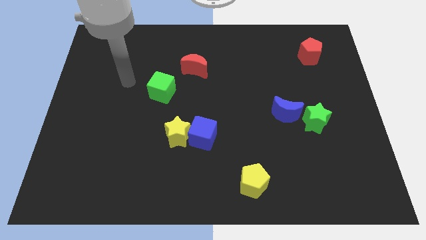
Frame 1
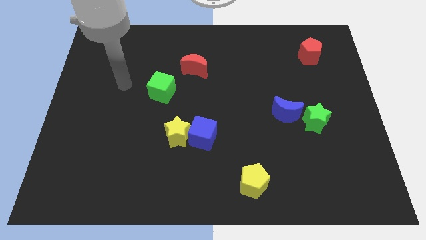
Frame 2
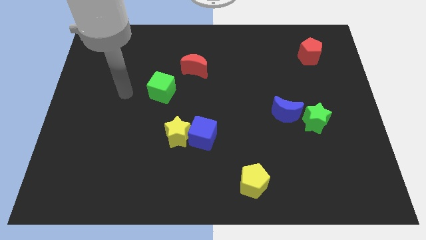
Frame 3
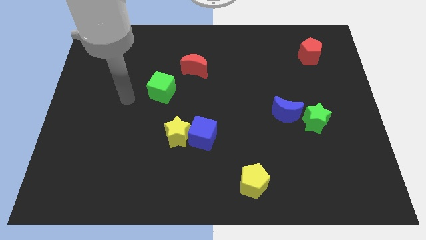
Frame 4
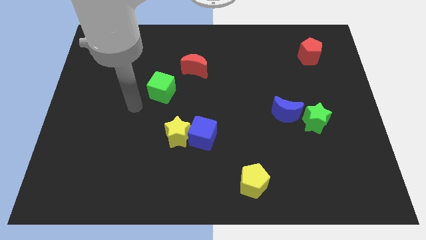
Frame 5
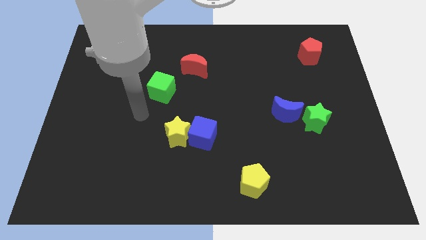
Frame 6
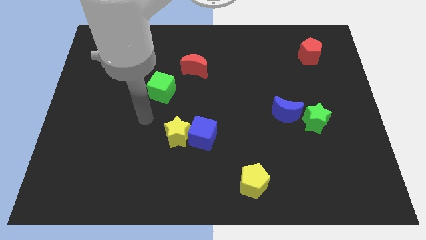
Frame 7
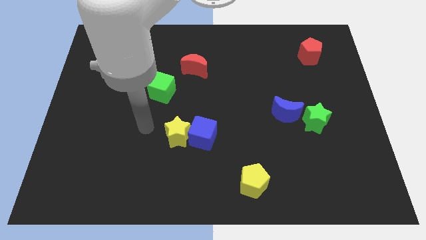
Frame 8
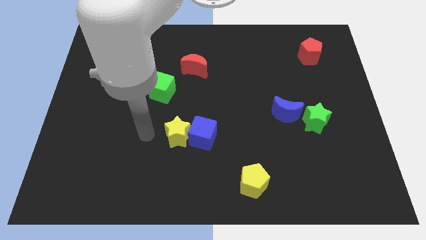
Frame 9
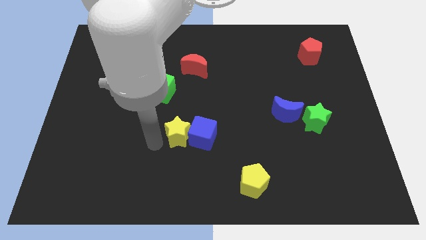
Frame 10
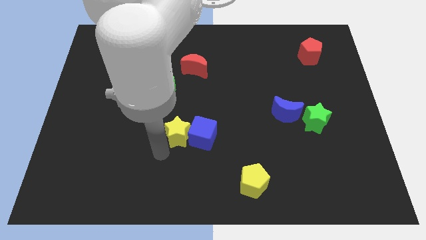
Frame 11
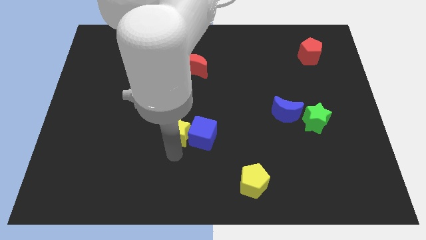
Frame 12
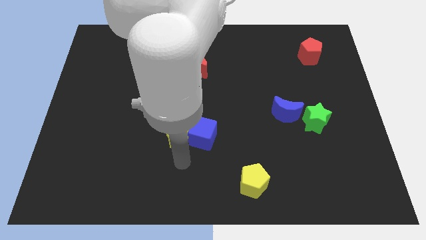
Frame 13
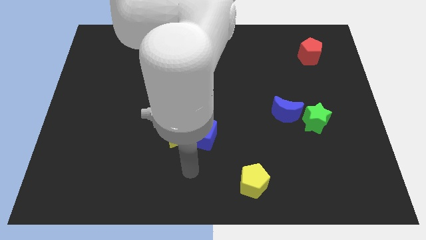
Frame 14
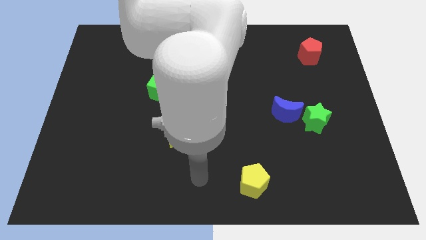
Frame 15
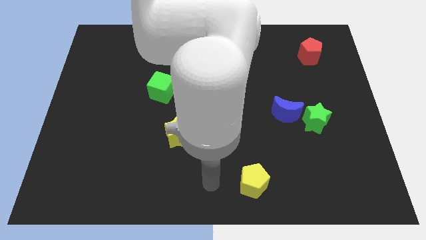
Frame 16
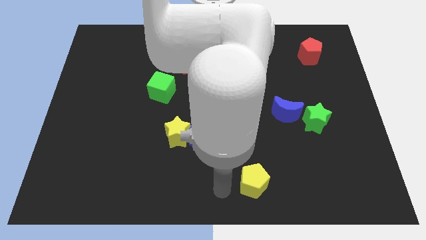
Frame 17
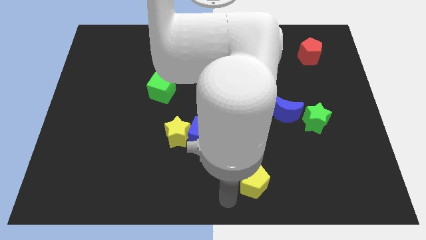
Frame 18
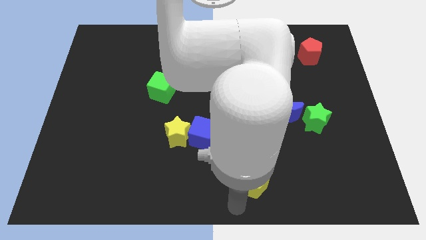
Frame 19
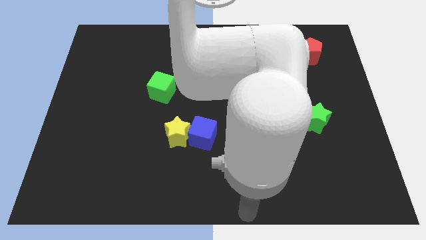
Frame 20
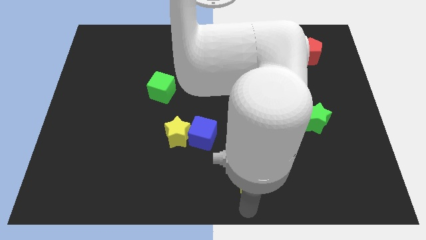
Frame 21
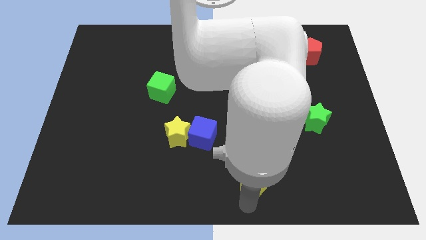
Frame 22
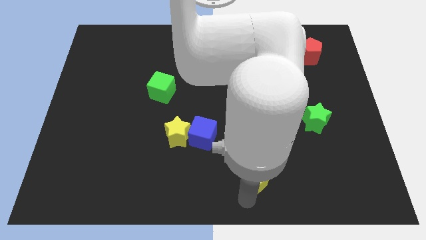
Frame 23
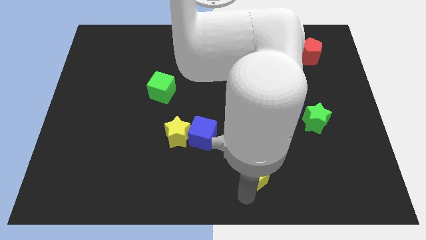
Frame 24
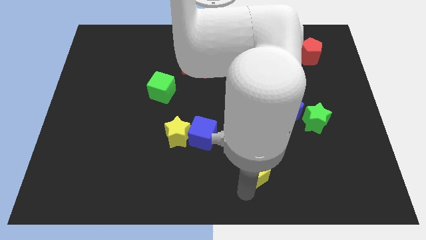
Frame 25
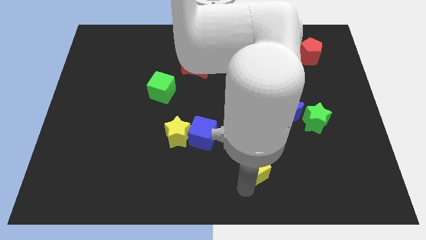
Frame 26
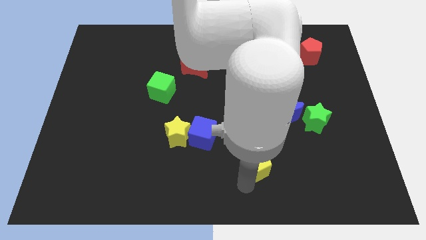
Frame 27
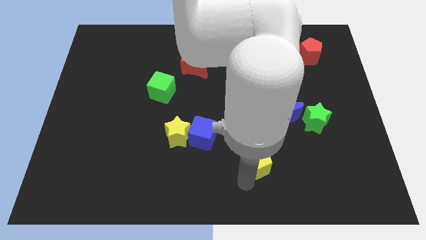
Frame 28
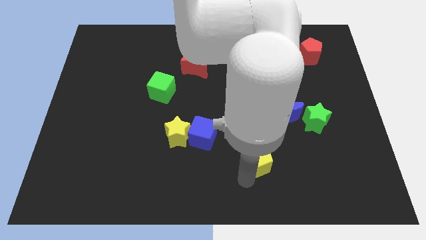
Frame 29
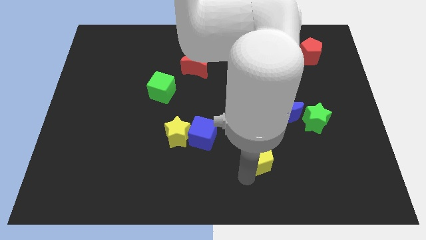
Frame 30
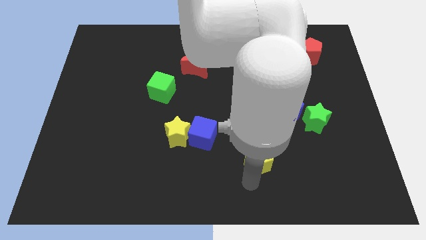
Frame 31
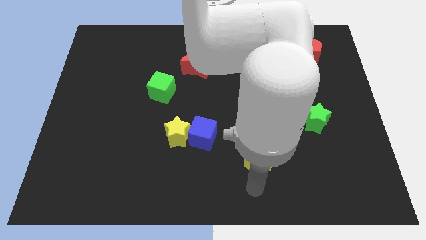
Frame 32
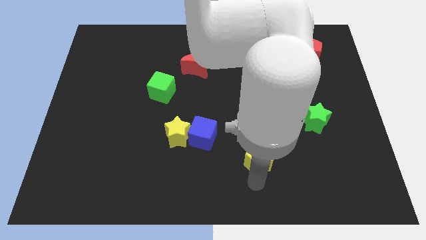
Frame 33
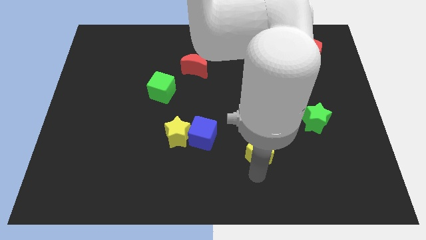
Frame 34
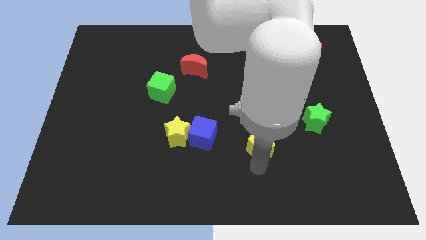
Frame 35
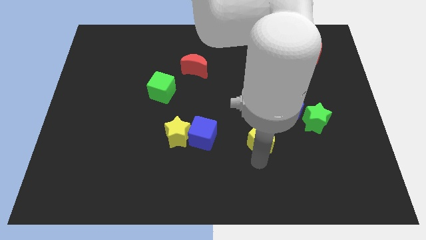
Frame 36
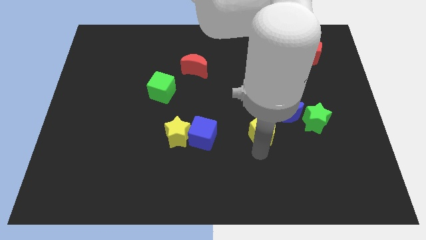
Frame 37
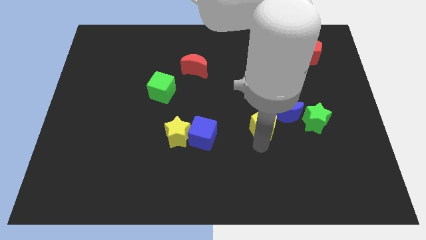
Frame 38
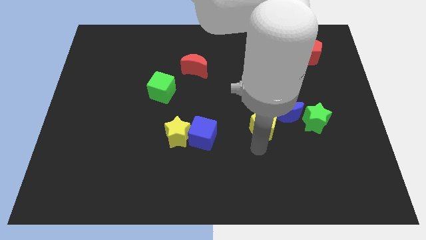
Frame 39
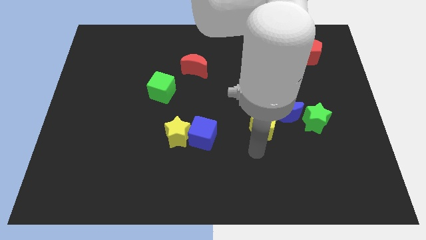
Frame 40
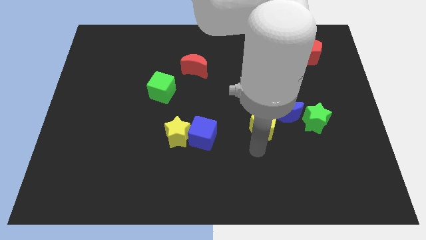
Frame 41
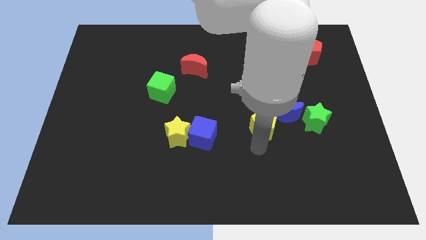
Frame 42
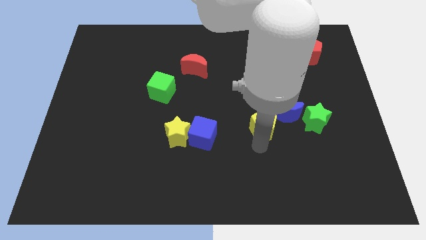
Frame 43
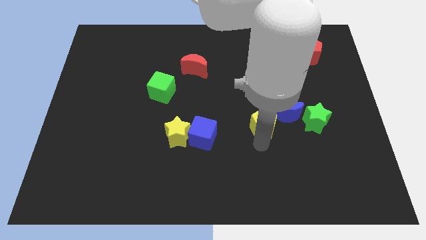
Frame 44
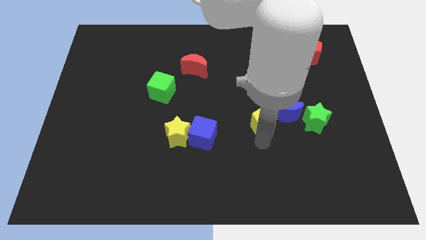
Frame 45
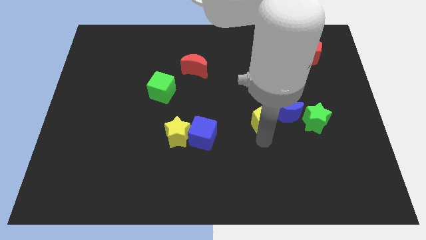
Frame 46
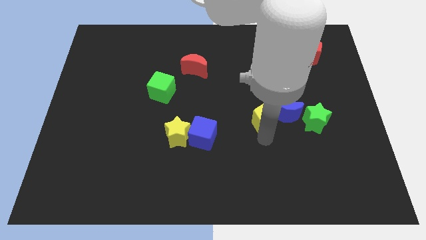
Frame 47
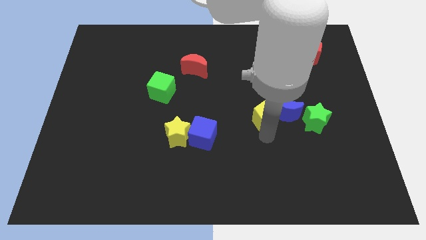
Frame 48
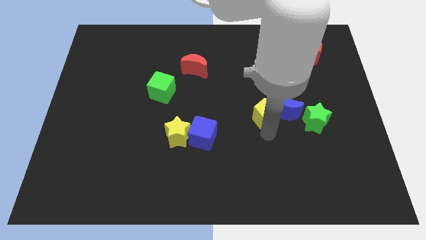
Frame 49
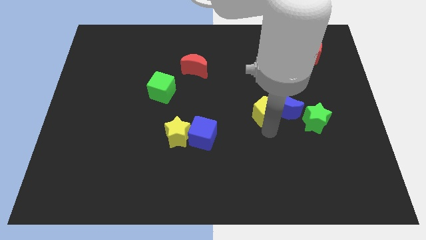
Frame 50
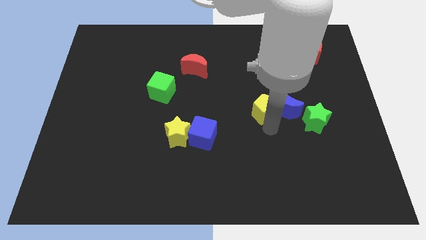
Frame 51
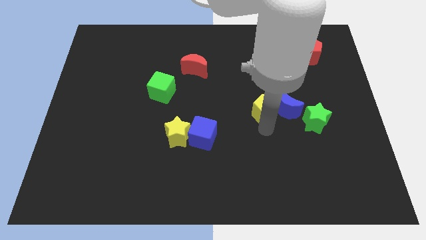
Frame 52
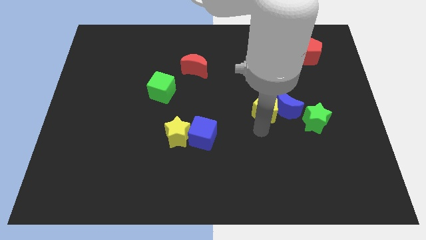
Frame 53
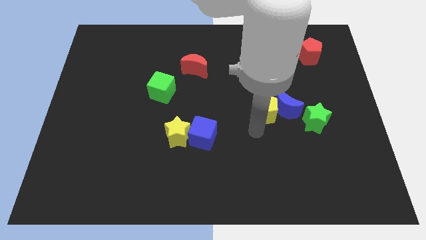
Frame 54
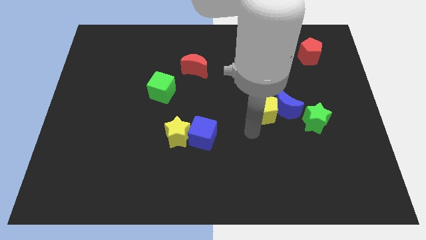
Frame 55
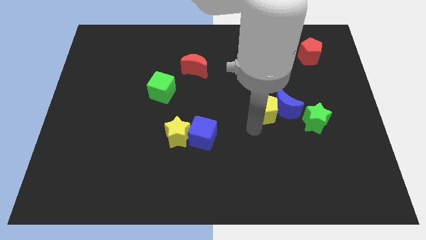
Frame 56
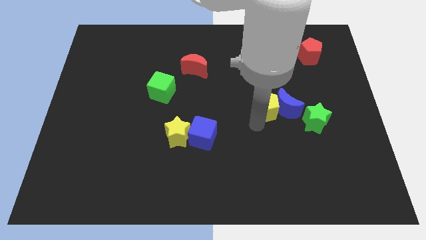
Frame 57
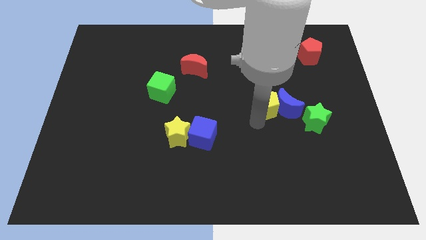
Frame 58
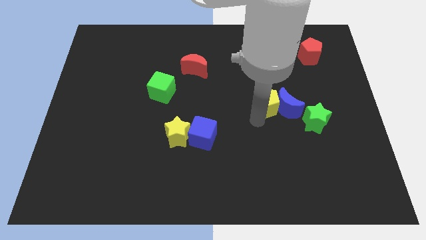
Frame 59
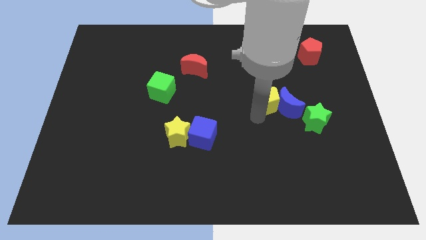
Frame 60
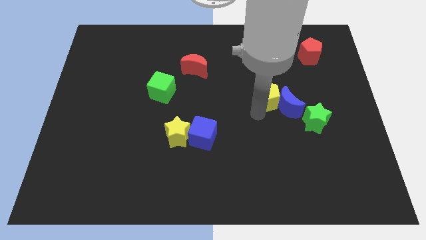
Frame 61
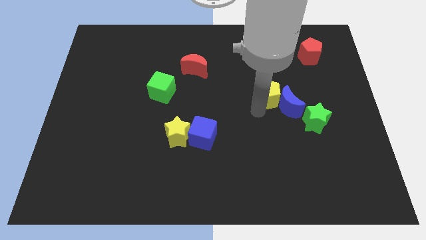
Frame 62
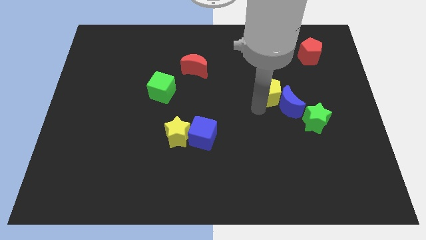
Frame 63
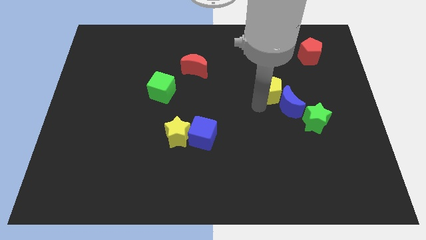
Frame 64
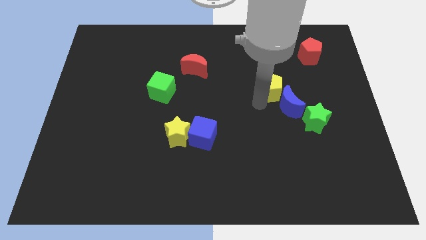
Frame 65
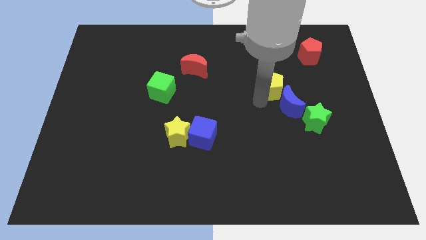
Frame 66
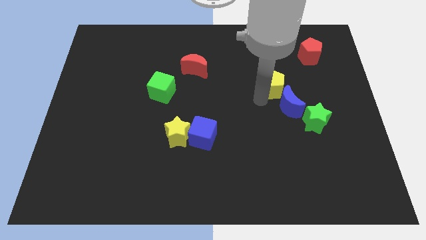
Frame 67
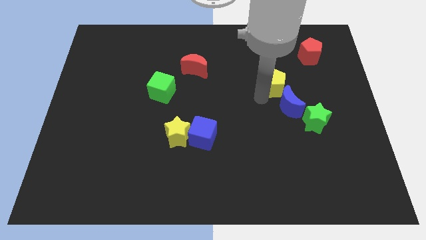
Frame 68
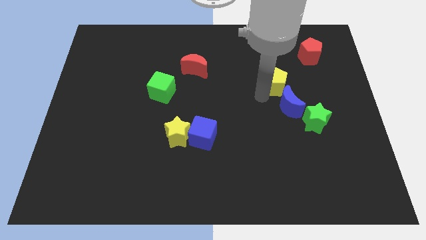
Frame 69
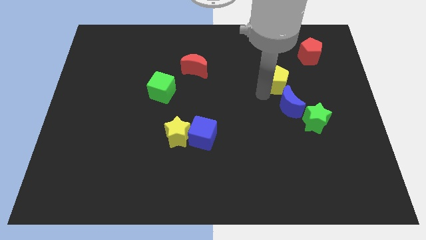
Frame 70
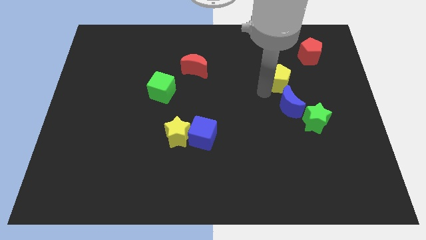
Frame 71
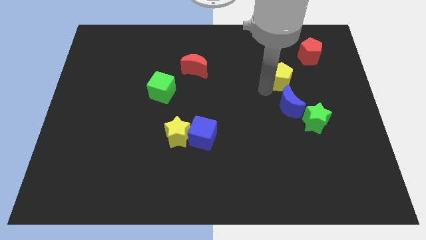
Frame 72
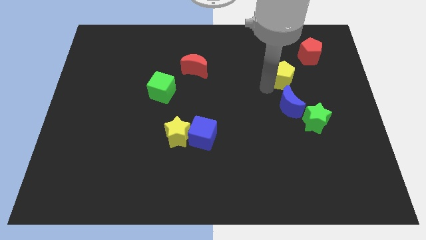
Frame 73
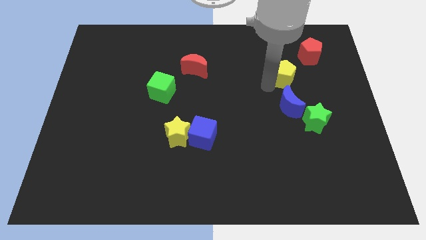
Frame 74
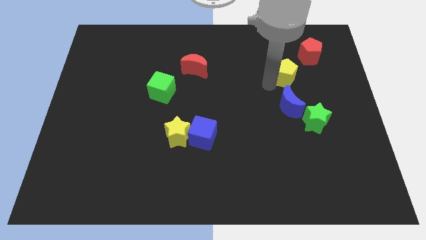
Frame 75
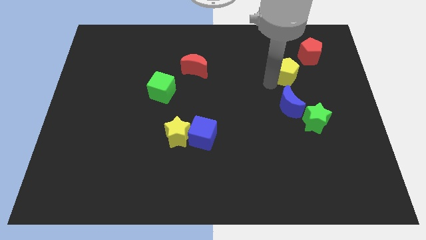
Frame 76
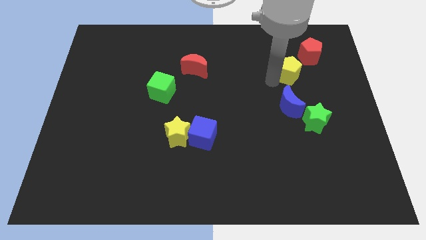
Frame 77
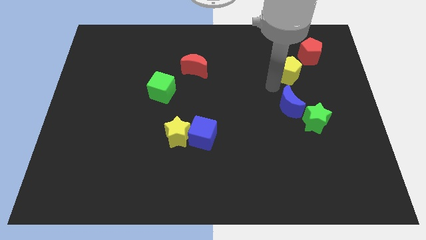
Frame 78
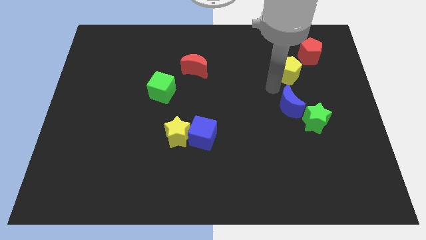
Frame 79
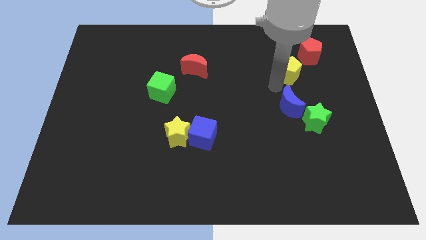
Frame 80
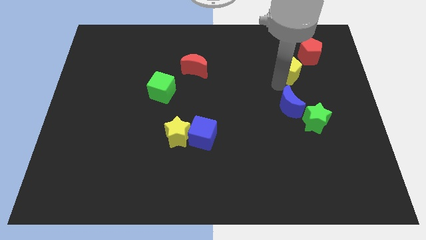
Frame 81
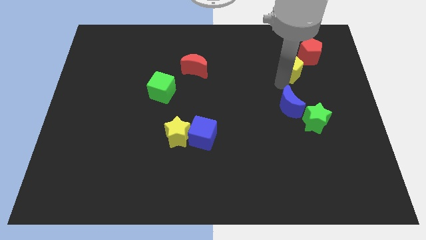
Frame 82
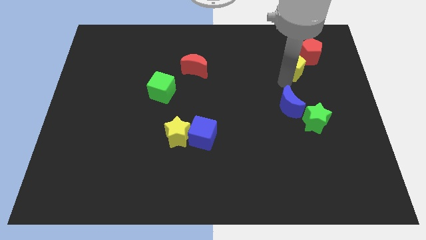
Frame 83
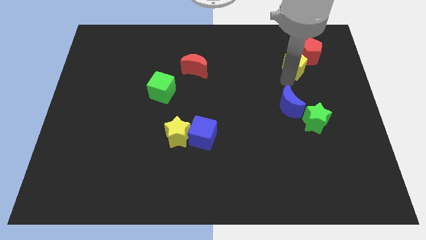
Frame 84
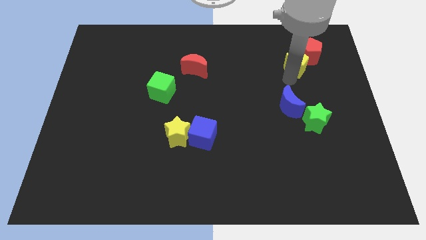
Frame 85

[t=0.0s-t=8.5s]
slide the yellow pentagon towards the red pentagon
